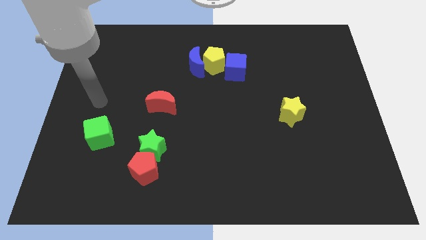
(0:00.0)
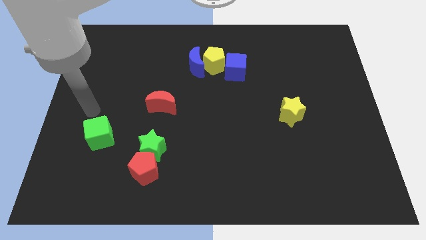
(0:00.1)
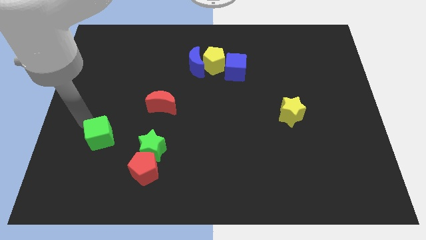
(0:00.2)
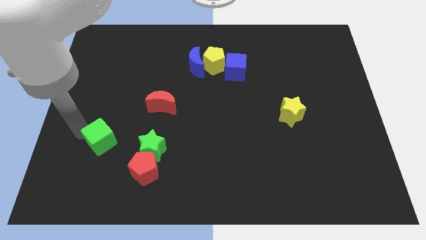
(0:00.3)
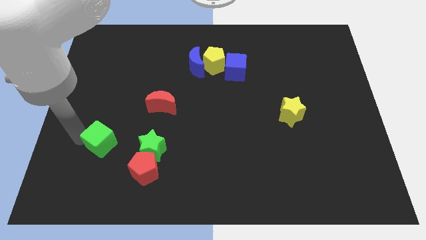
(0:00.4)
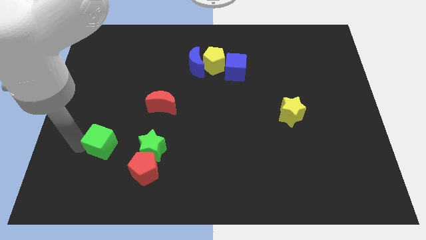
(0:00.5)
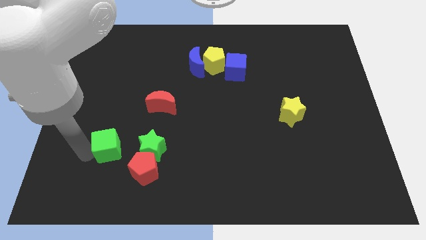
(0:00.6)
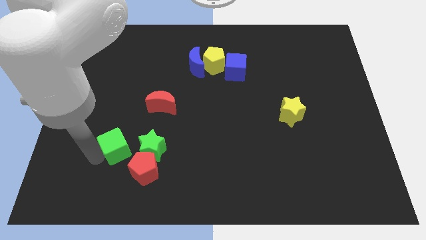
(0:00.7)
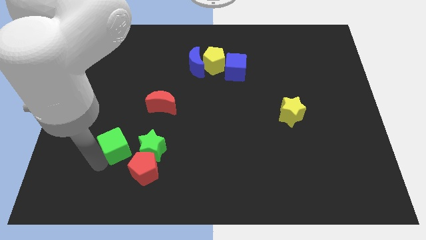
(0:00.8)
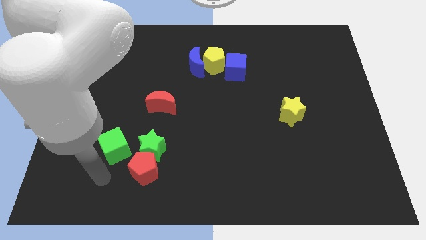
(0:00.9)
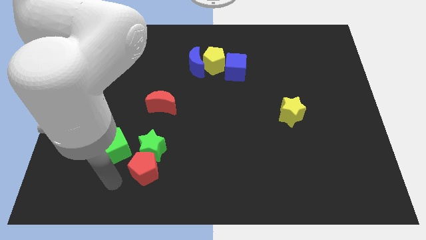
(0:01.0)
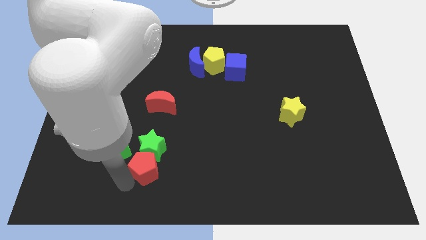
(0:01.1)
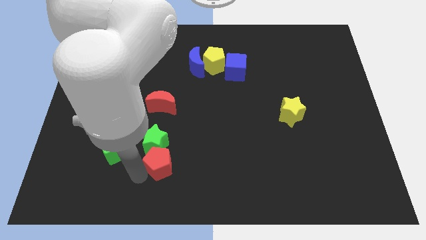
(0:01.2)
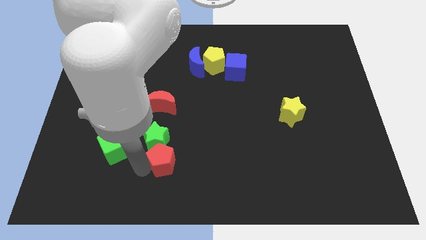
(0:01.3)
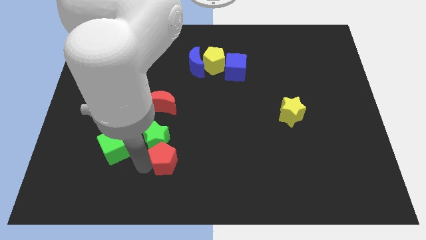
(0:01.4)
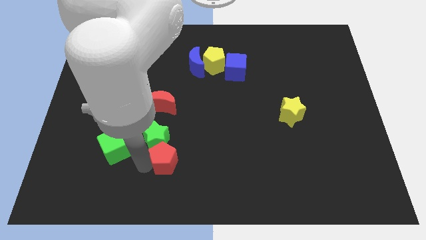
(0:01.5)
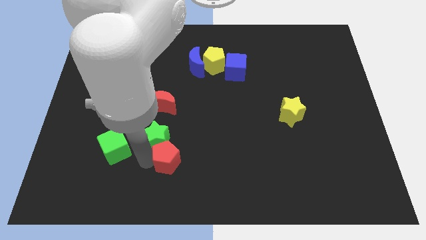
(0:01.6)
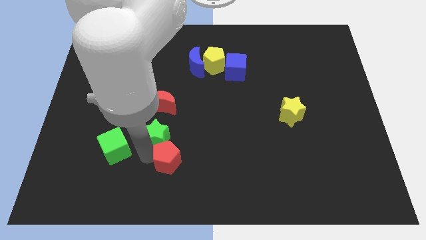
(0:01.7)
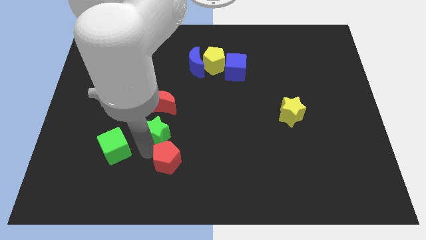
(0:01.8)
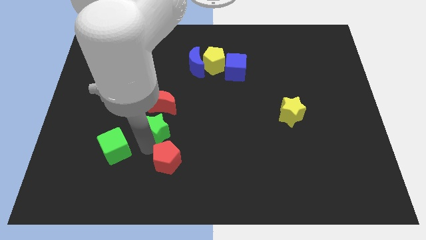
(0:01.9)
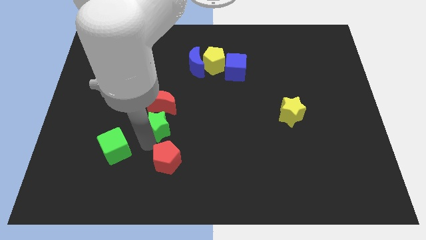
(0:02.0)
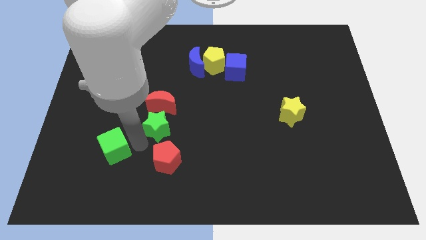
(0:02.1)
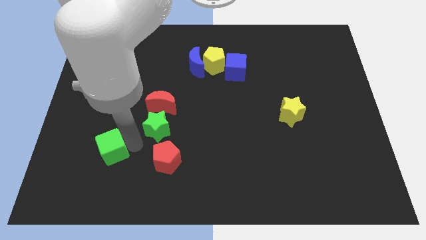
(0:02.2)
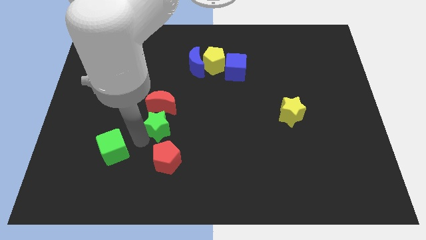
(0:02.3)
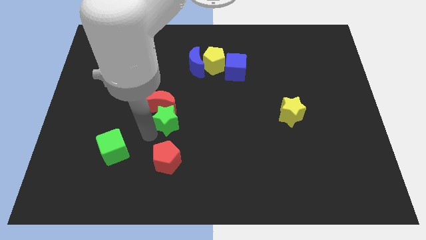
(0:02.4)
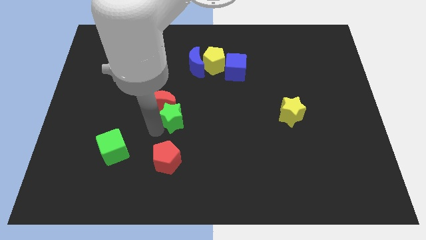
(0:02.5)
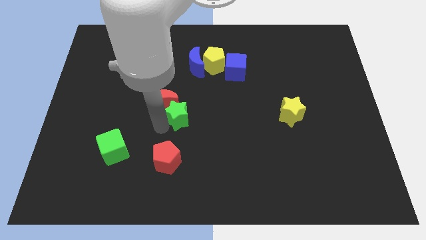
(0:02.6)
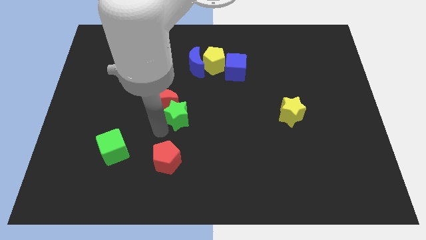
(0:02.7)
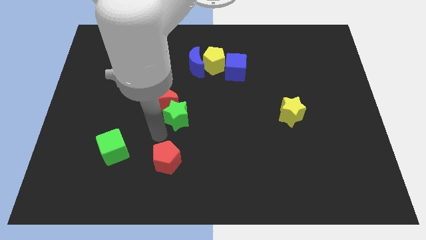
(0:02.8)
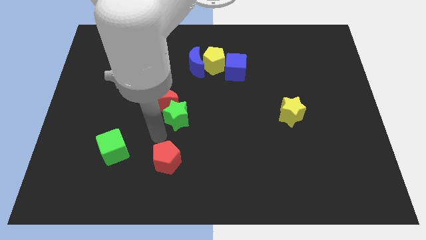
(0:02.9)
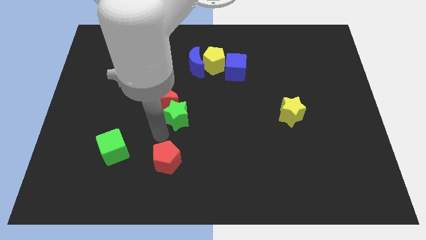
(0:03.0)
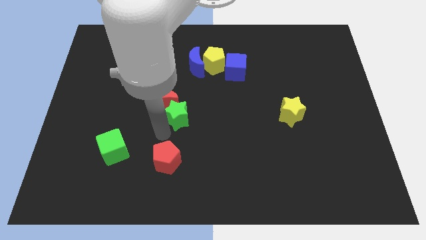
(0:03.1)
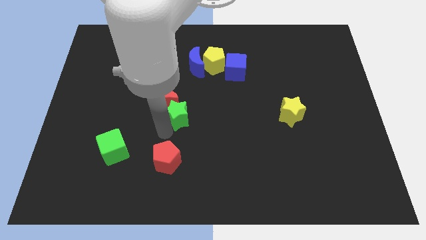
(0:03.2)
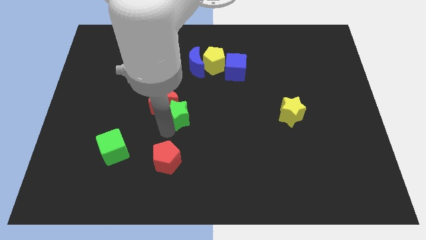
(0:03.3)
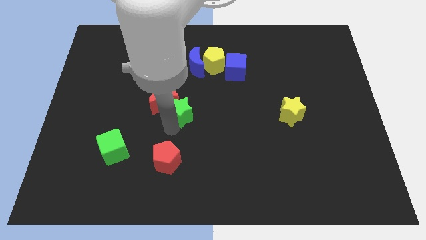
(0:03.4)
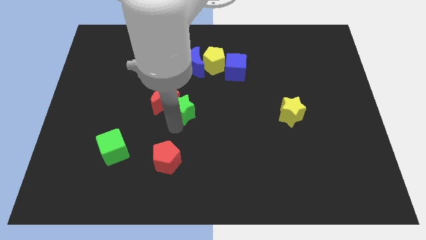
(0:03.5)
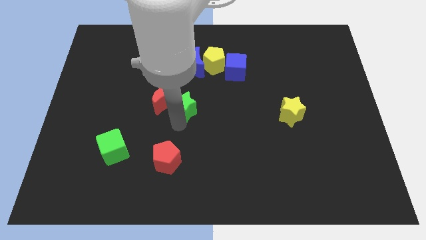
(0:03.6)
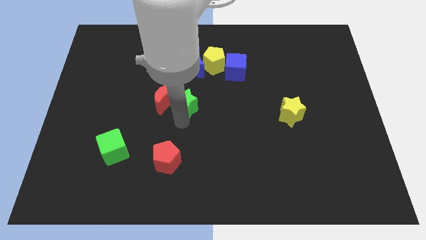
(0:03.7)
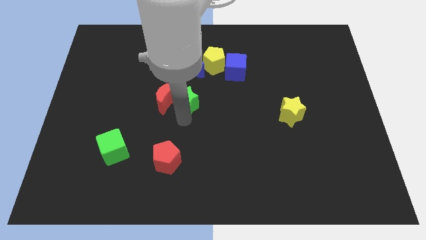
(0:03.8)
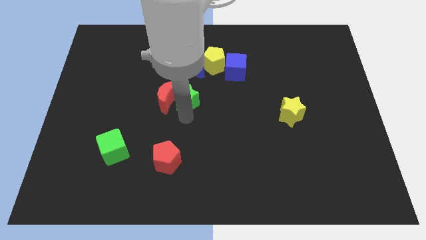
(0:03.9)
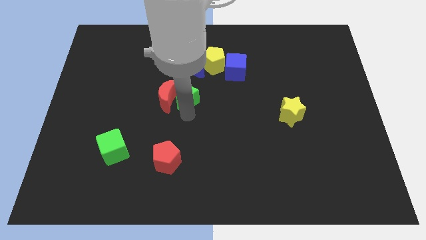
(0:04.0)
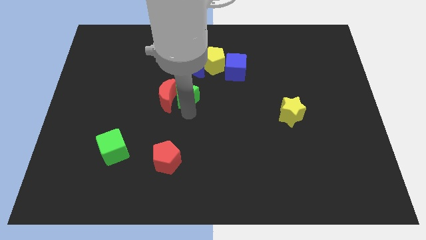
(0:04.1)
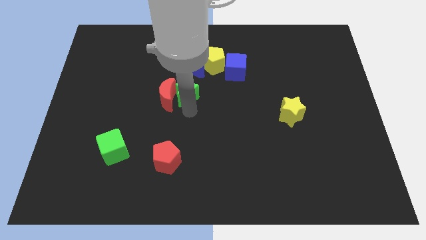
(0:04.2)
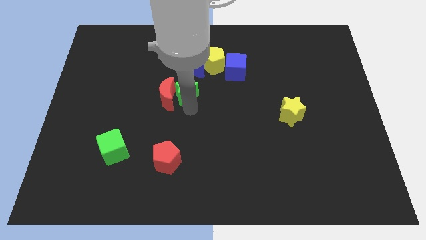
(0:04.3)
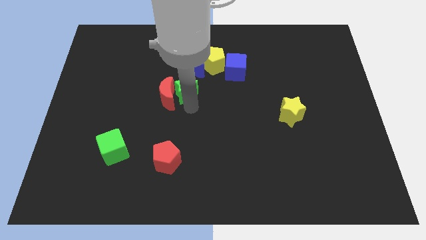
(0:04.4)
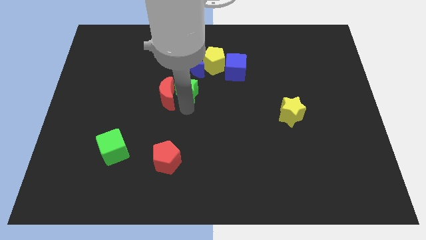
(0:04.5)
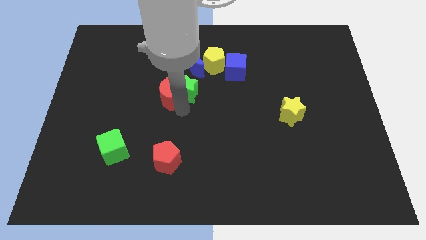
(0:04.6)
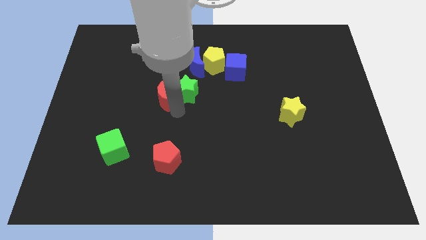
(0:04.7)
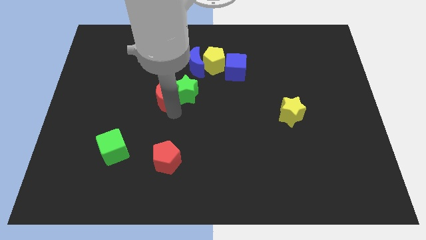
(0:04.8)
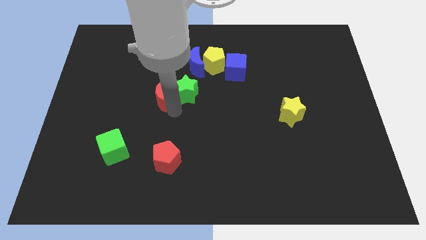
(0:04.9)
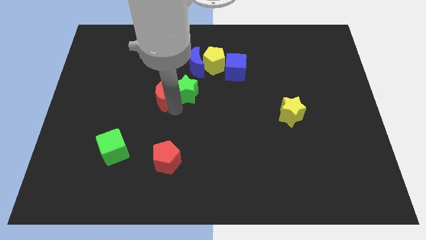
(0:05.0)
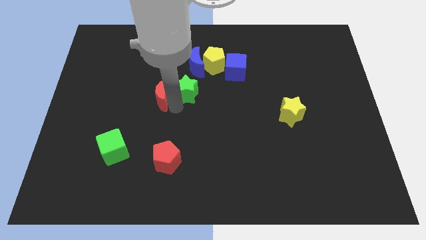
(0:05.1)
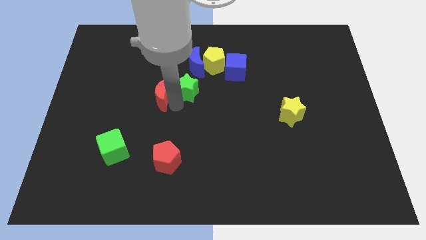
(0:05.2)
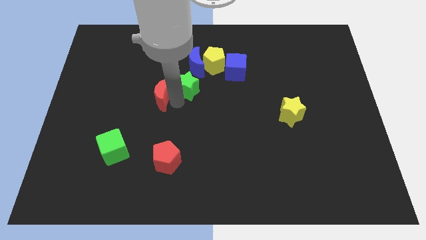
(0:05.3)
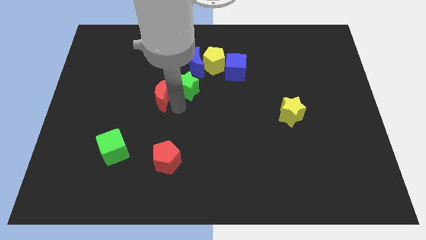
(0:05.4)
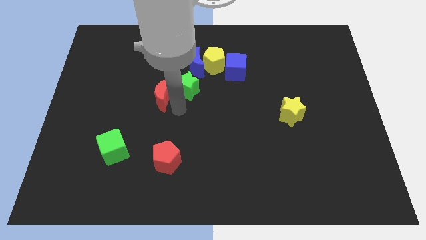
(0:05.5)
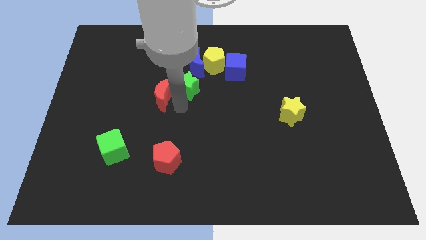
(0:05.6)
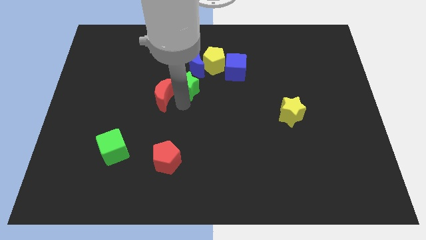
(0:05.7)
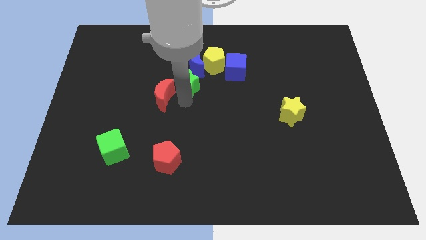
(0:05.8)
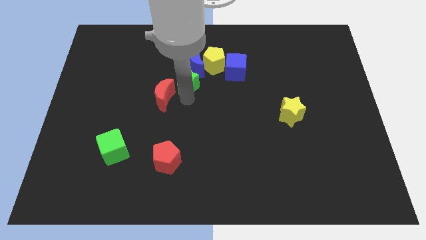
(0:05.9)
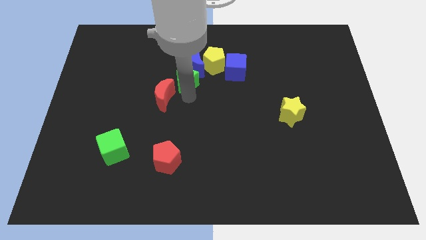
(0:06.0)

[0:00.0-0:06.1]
push the green star next to the blue moon
